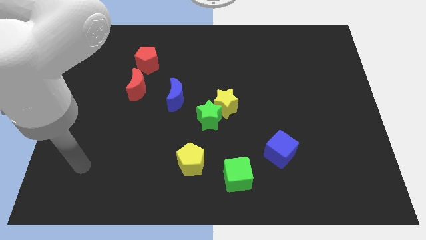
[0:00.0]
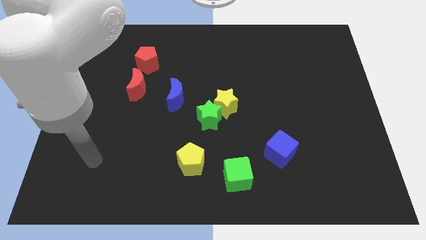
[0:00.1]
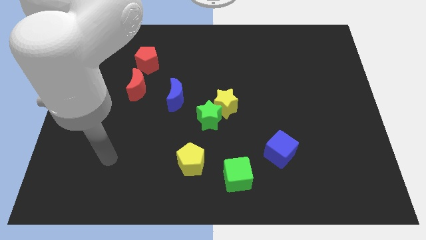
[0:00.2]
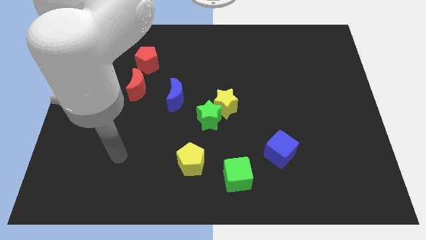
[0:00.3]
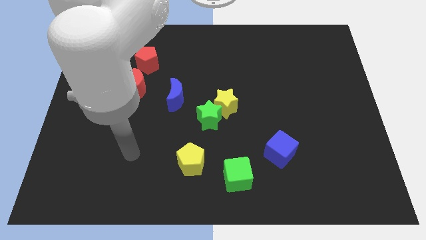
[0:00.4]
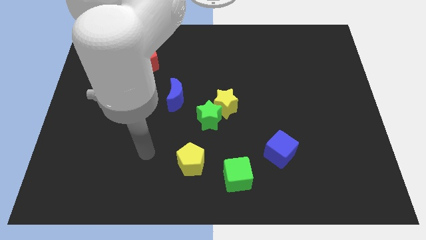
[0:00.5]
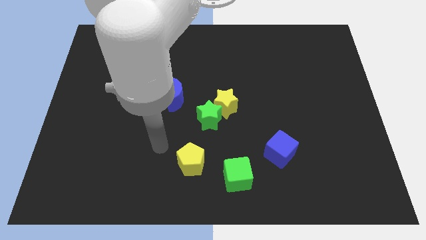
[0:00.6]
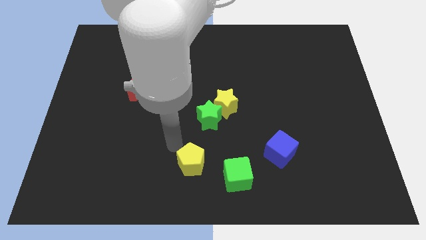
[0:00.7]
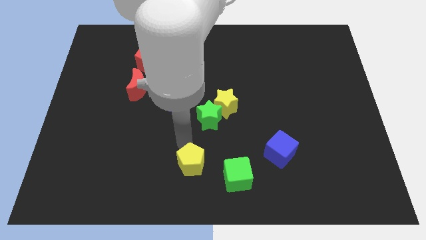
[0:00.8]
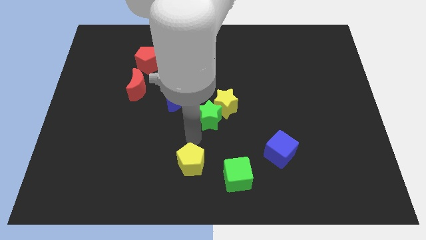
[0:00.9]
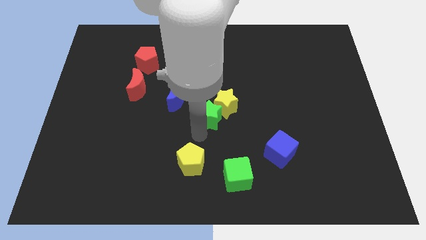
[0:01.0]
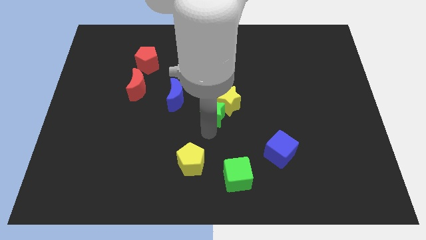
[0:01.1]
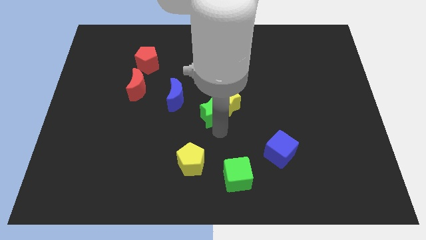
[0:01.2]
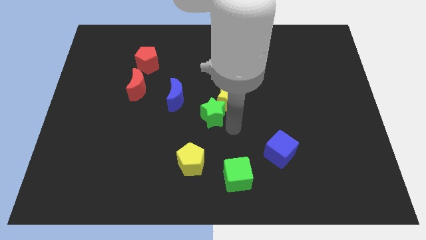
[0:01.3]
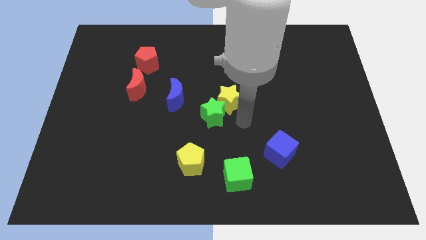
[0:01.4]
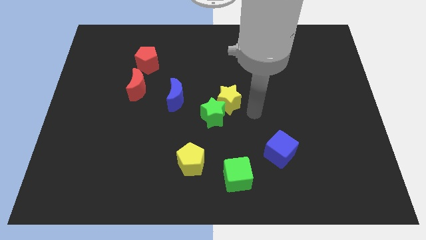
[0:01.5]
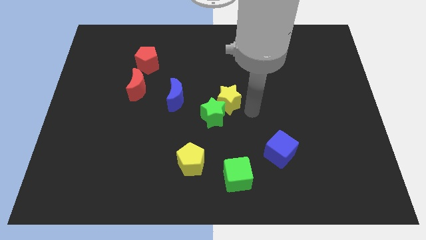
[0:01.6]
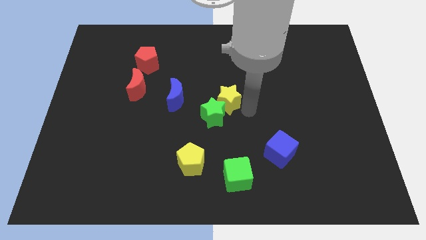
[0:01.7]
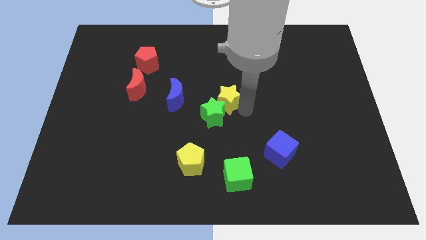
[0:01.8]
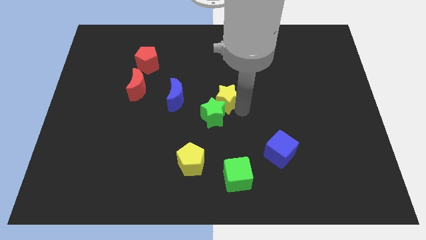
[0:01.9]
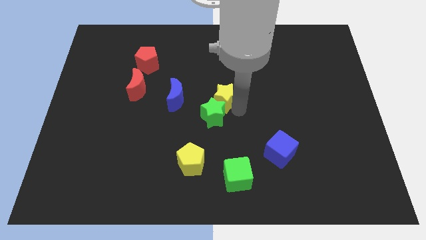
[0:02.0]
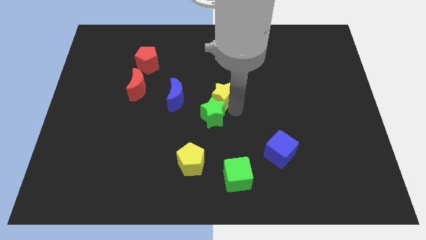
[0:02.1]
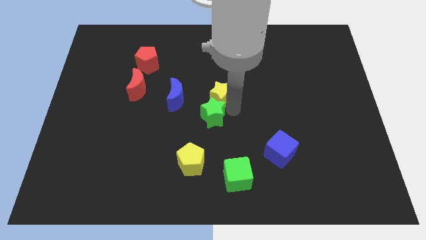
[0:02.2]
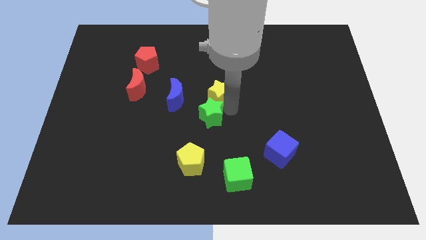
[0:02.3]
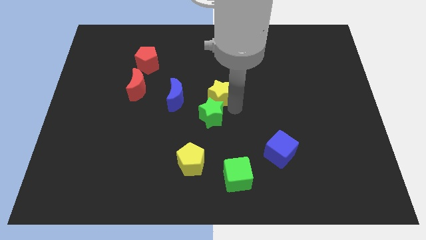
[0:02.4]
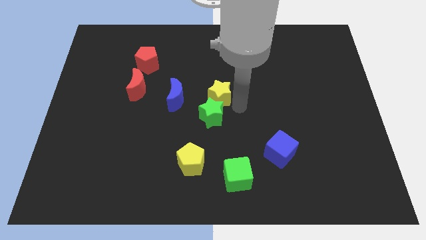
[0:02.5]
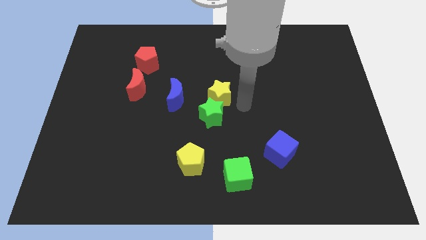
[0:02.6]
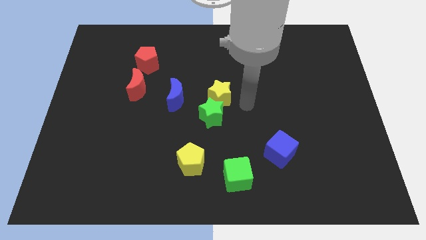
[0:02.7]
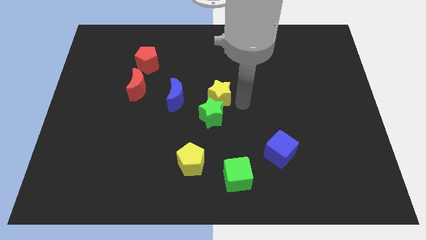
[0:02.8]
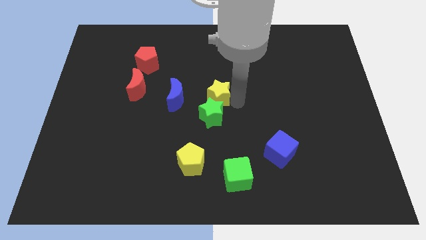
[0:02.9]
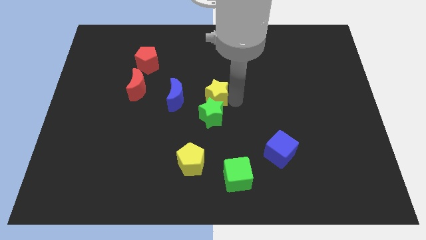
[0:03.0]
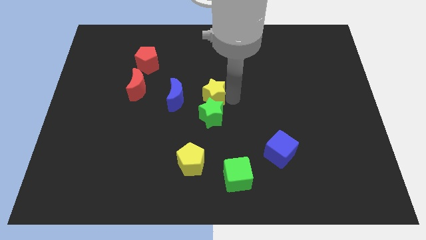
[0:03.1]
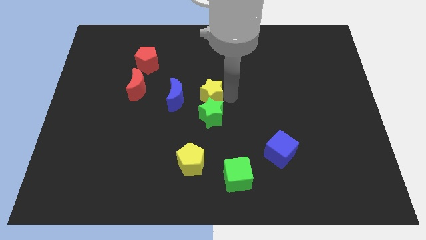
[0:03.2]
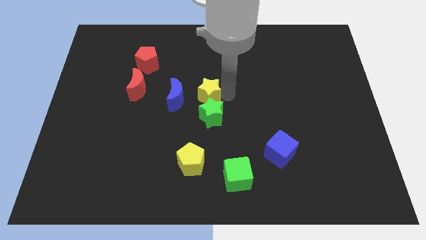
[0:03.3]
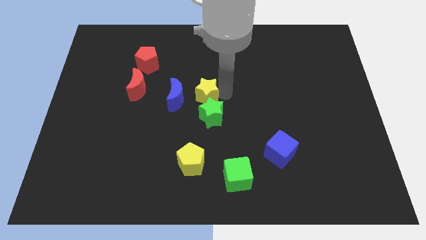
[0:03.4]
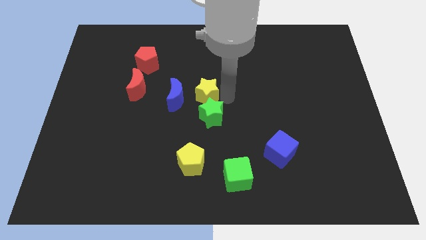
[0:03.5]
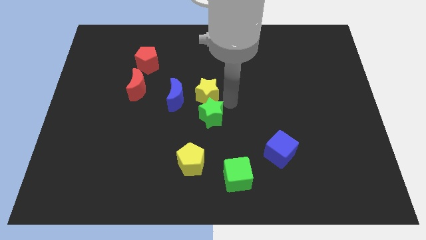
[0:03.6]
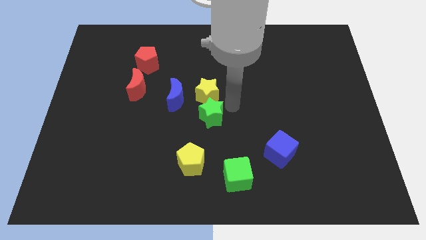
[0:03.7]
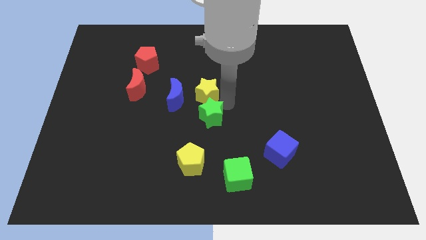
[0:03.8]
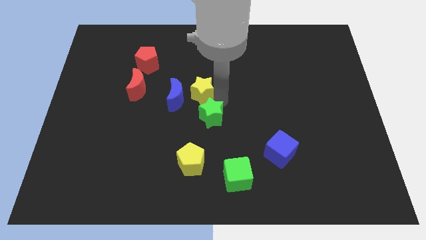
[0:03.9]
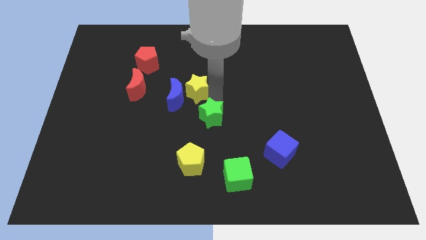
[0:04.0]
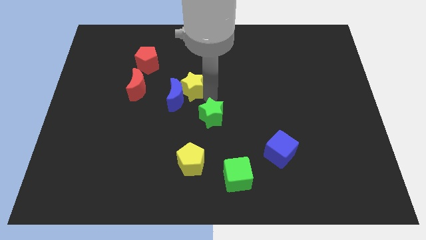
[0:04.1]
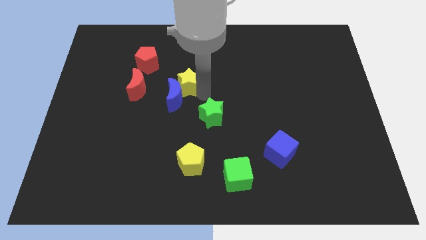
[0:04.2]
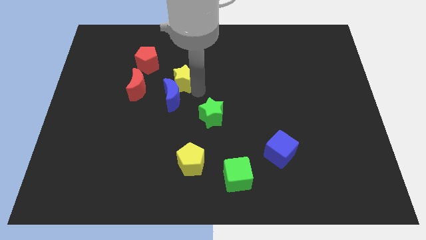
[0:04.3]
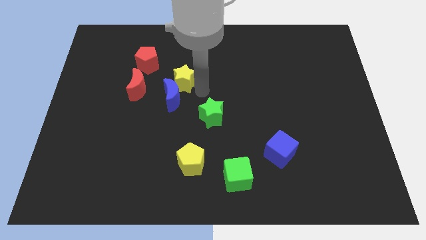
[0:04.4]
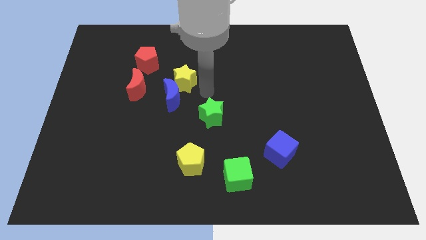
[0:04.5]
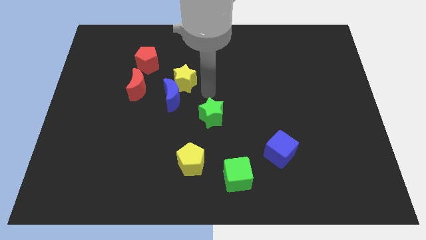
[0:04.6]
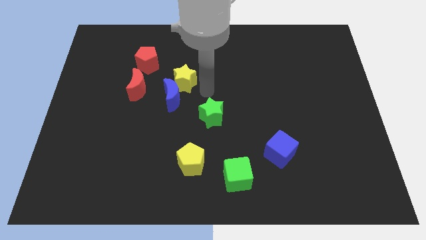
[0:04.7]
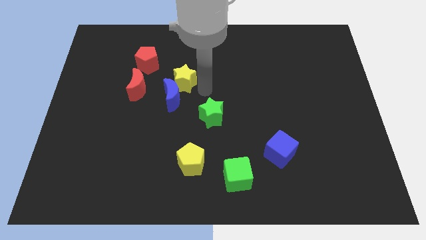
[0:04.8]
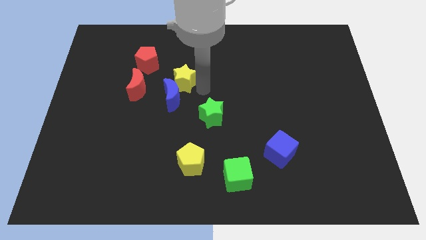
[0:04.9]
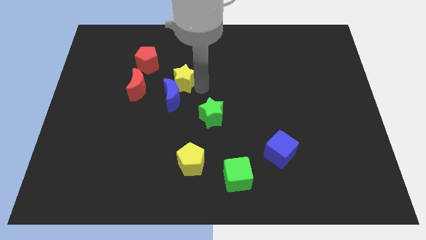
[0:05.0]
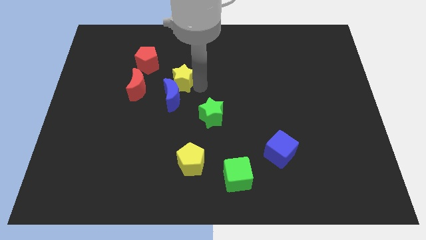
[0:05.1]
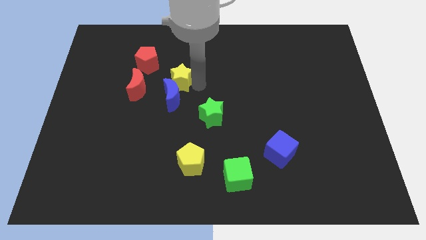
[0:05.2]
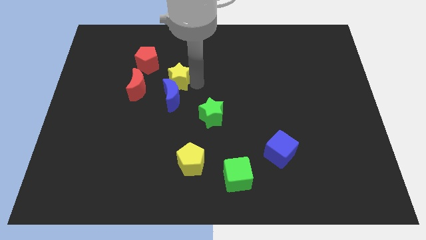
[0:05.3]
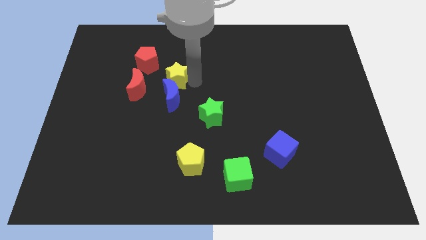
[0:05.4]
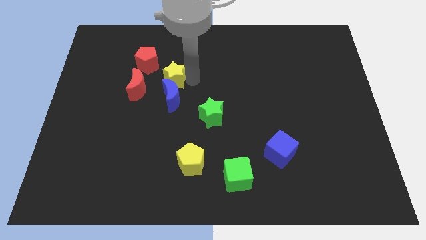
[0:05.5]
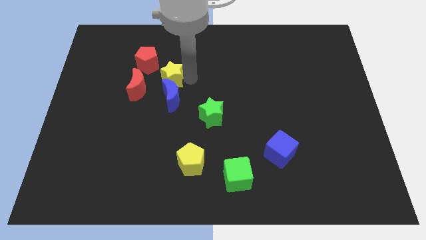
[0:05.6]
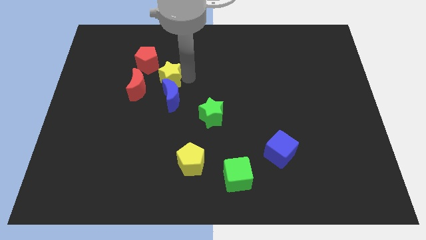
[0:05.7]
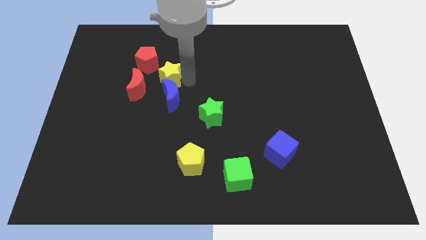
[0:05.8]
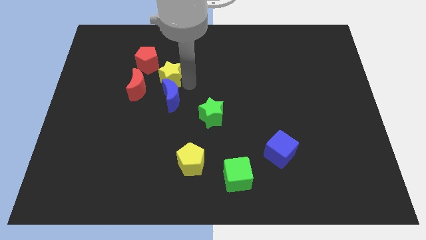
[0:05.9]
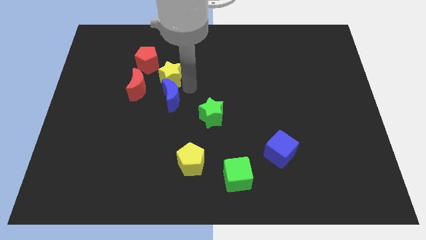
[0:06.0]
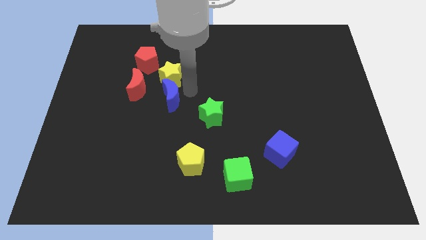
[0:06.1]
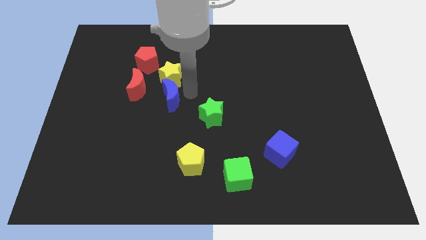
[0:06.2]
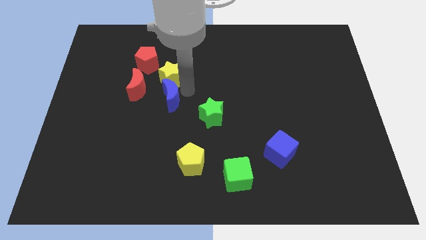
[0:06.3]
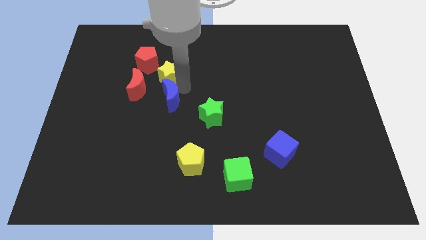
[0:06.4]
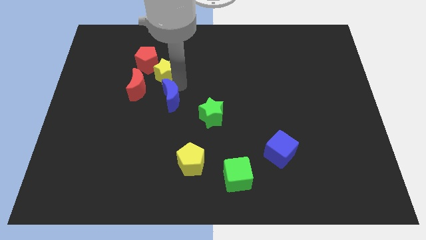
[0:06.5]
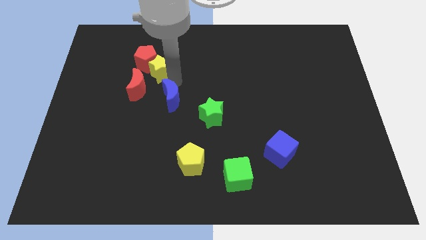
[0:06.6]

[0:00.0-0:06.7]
slide the yellow star towards the red pentagon
